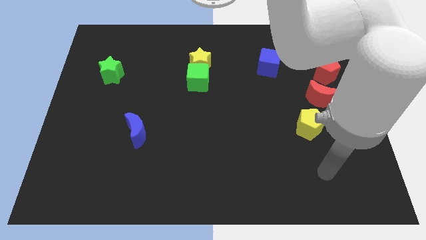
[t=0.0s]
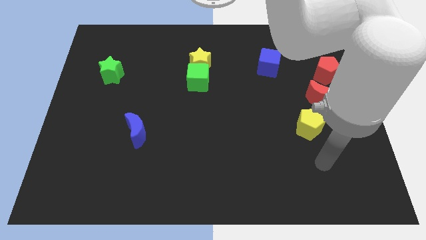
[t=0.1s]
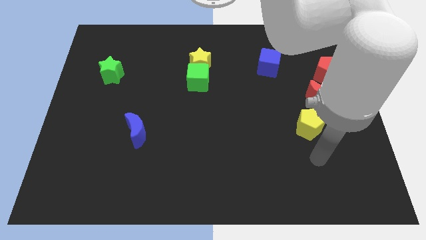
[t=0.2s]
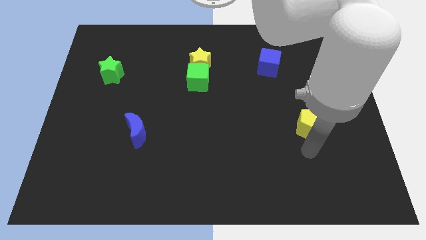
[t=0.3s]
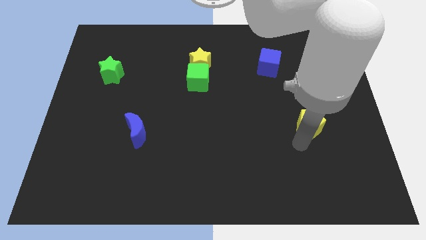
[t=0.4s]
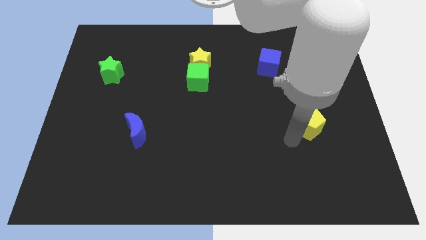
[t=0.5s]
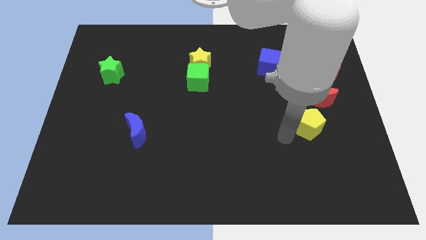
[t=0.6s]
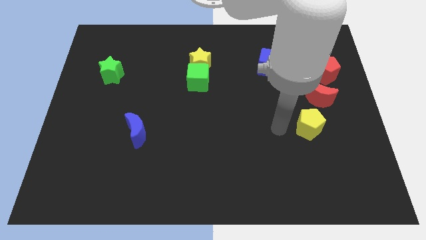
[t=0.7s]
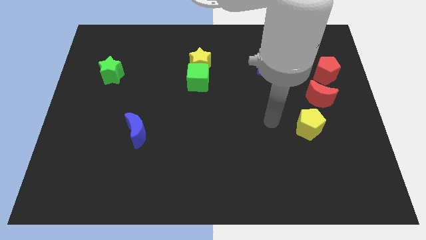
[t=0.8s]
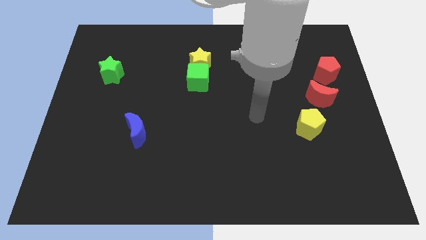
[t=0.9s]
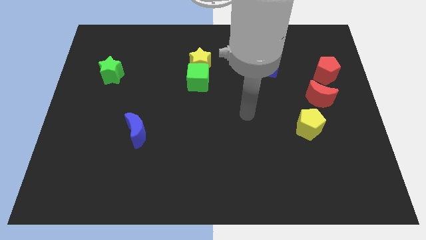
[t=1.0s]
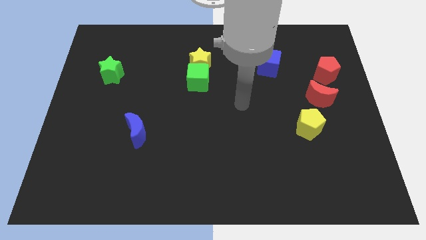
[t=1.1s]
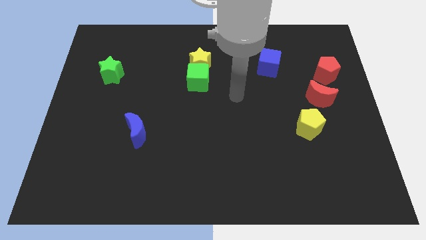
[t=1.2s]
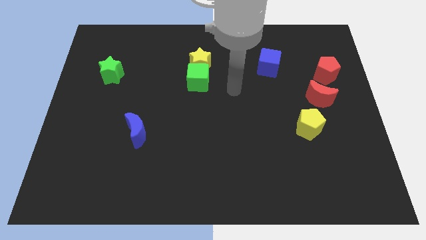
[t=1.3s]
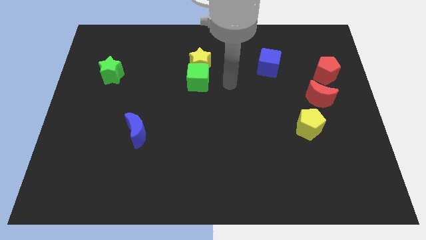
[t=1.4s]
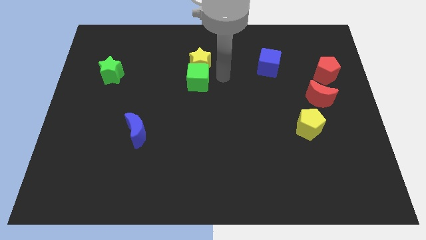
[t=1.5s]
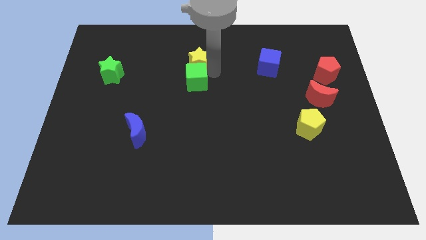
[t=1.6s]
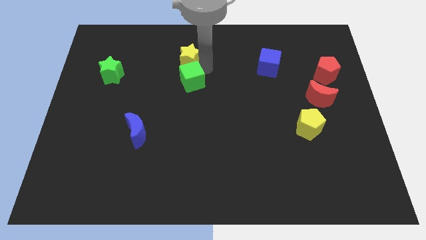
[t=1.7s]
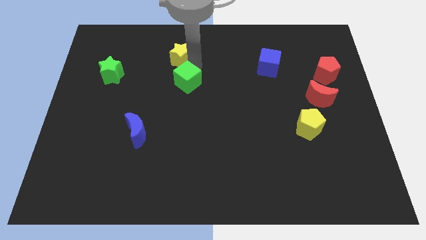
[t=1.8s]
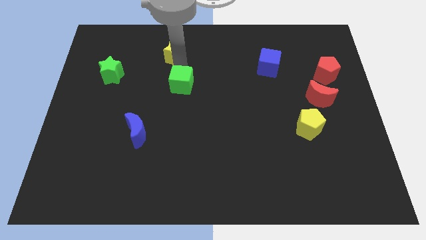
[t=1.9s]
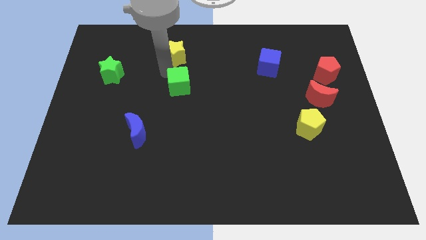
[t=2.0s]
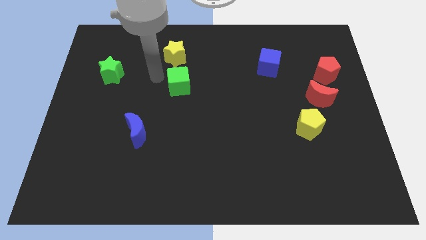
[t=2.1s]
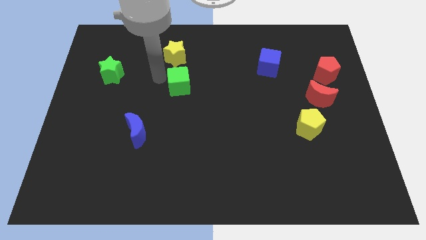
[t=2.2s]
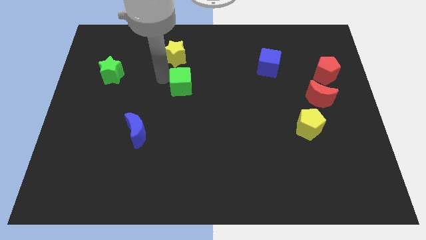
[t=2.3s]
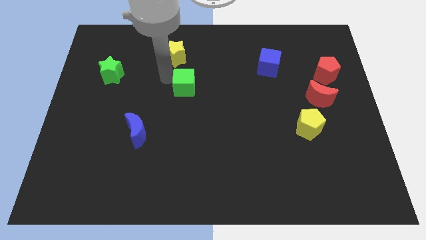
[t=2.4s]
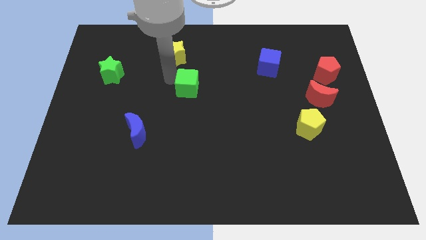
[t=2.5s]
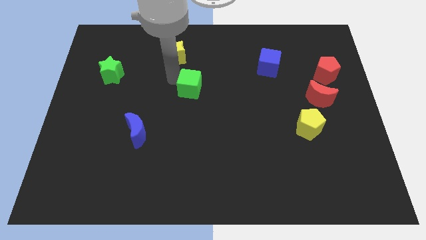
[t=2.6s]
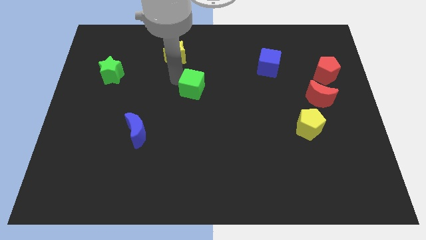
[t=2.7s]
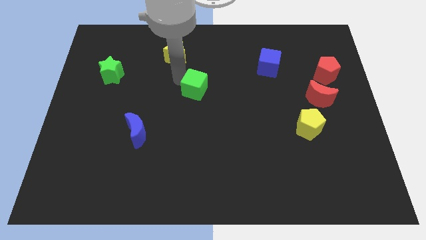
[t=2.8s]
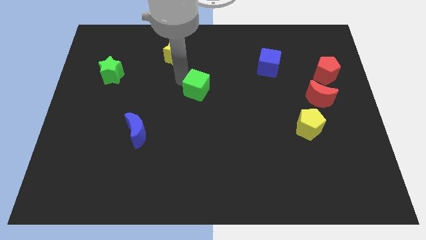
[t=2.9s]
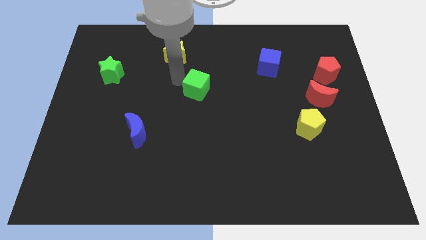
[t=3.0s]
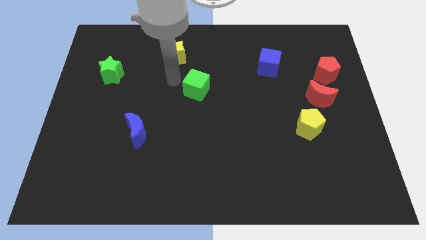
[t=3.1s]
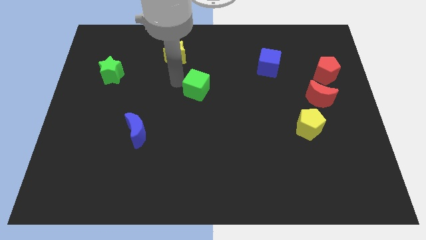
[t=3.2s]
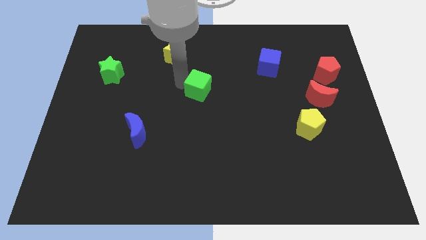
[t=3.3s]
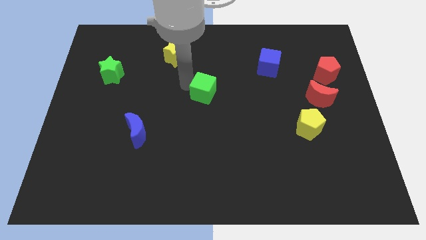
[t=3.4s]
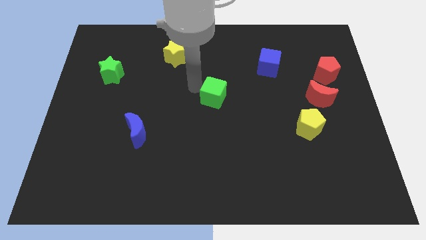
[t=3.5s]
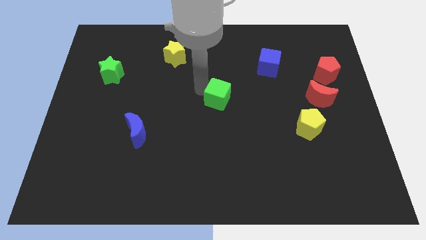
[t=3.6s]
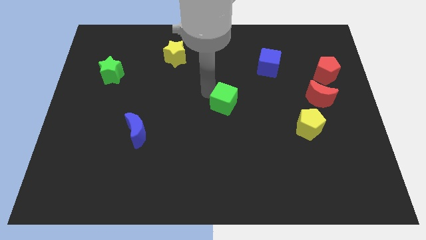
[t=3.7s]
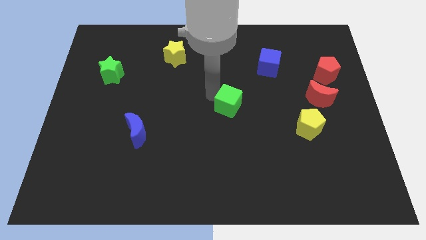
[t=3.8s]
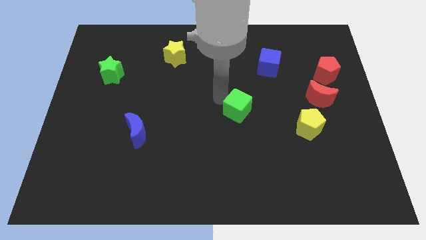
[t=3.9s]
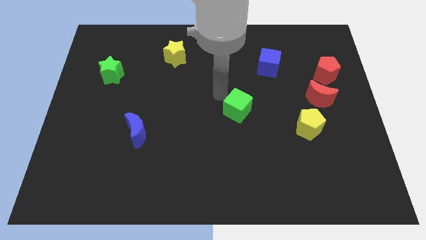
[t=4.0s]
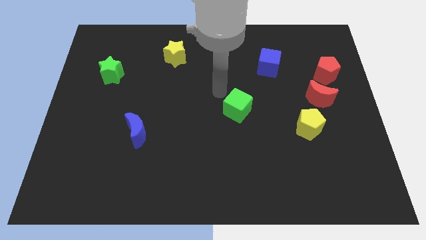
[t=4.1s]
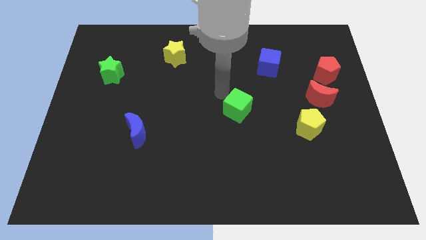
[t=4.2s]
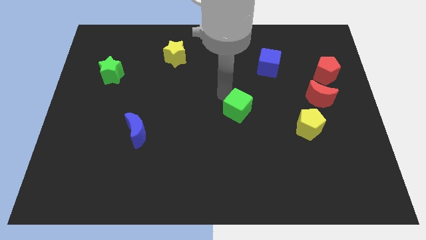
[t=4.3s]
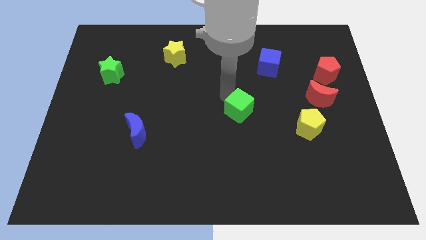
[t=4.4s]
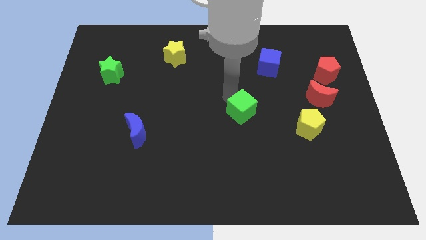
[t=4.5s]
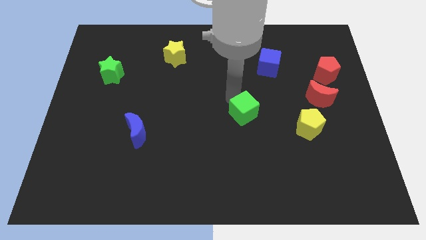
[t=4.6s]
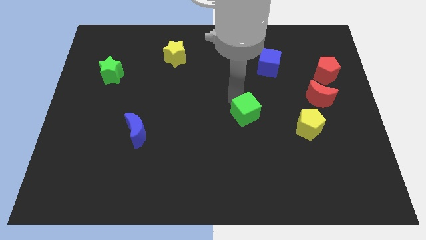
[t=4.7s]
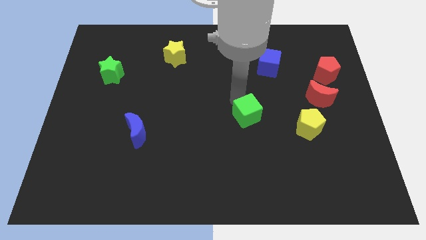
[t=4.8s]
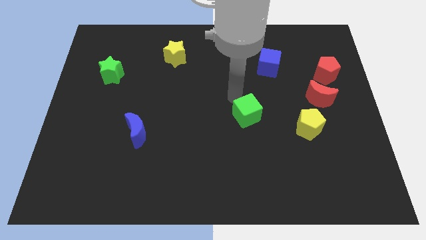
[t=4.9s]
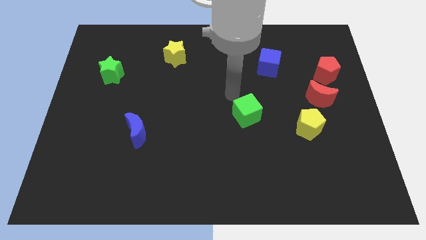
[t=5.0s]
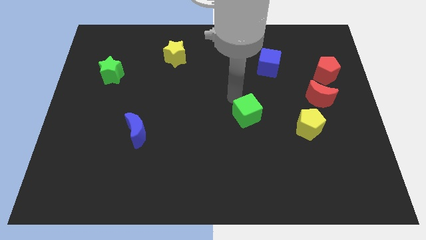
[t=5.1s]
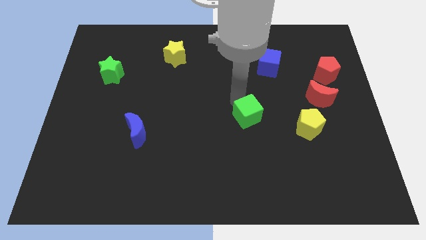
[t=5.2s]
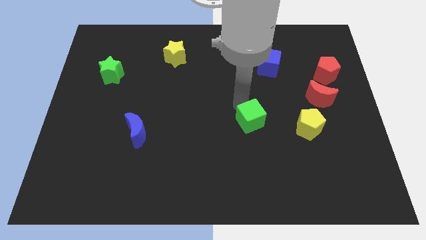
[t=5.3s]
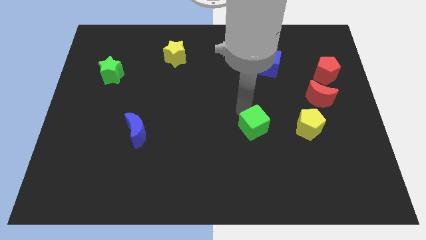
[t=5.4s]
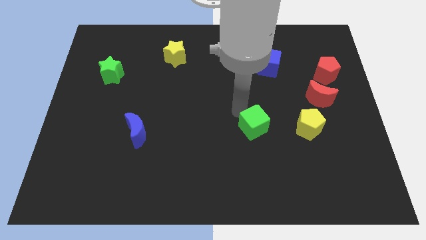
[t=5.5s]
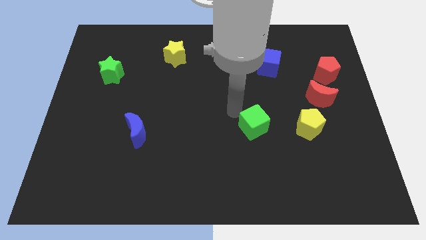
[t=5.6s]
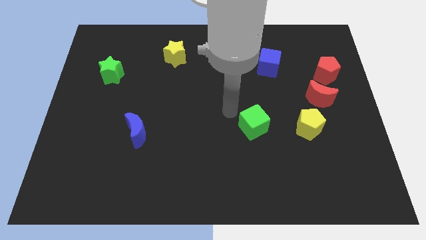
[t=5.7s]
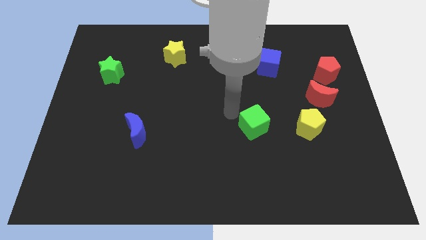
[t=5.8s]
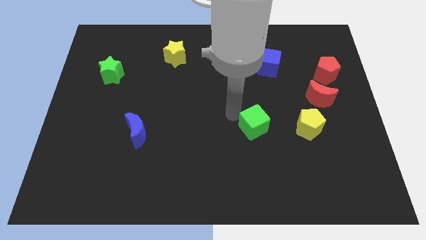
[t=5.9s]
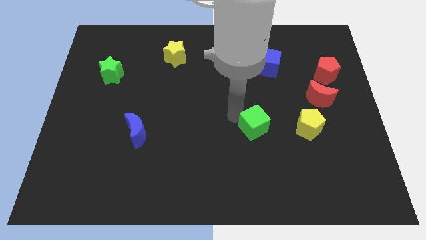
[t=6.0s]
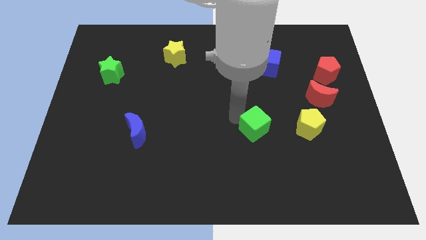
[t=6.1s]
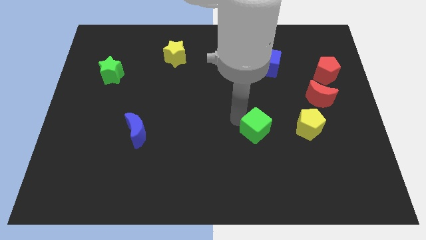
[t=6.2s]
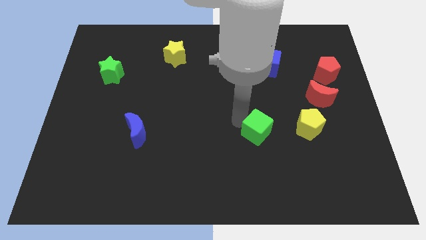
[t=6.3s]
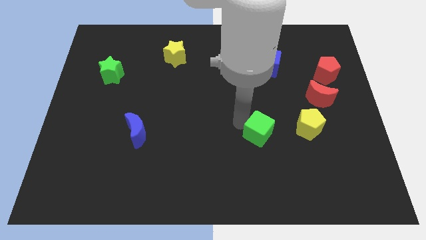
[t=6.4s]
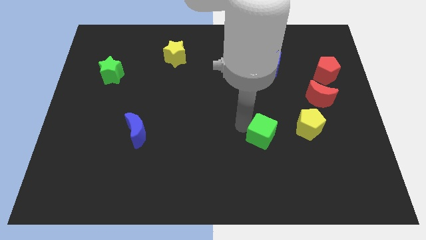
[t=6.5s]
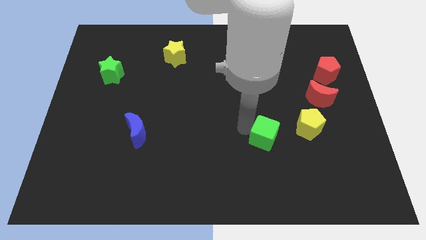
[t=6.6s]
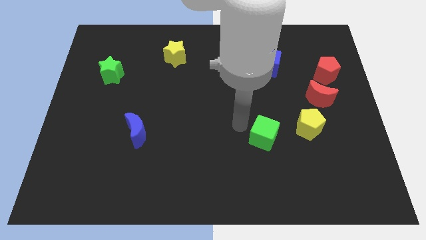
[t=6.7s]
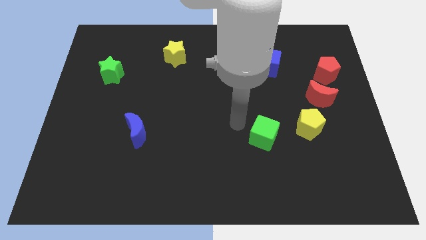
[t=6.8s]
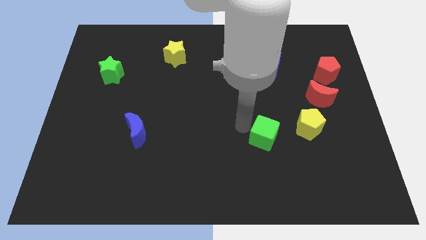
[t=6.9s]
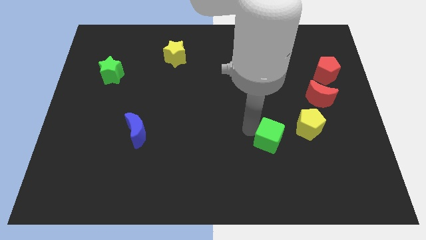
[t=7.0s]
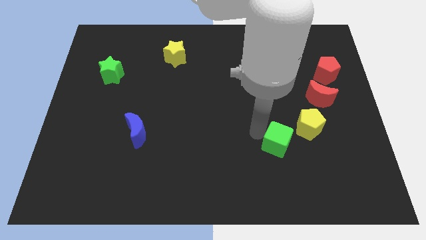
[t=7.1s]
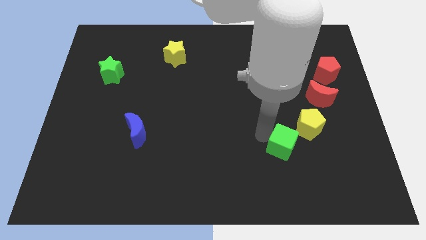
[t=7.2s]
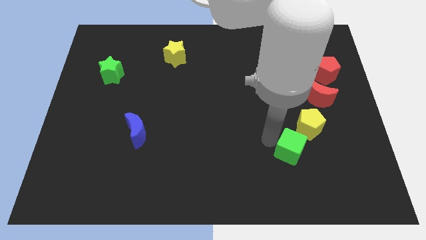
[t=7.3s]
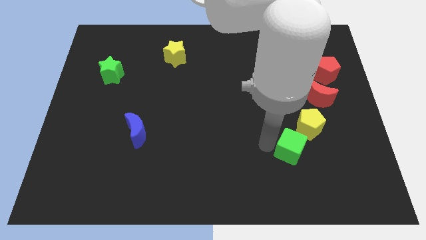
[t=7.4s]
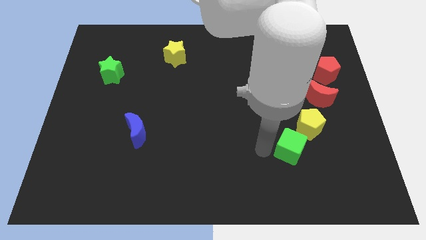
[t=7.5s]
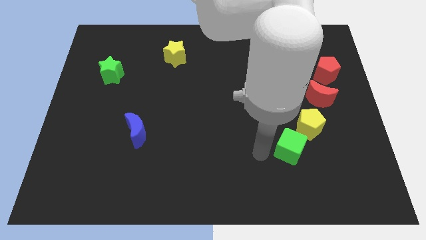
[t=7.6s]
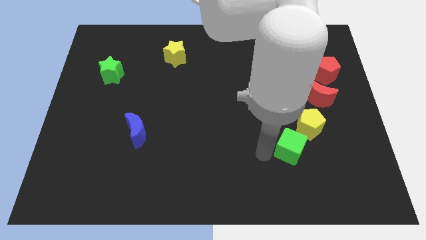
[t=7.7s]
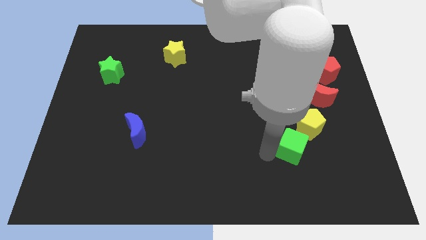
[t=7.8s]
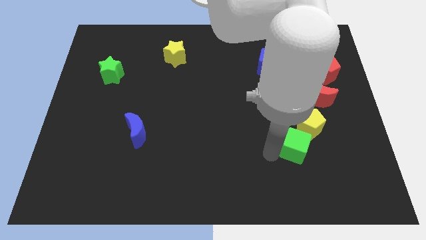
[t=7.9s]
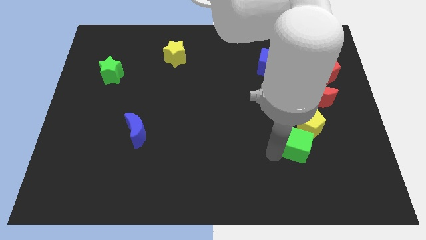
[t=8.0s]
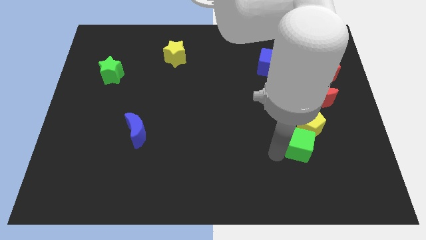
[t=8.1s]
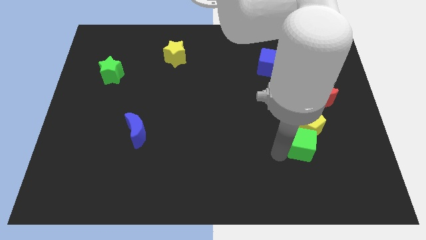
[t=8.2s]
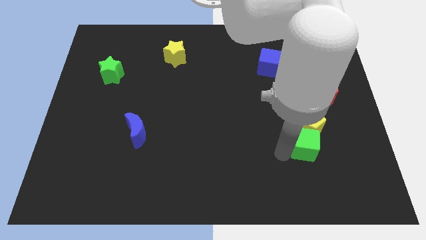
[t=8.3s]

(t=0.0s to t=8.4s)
put the green cube to the bottom right side of the yellow pentagon
